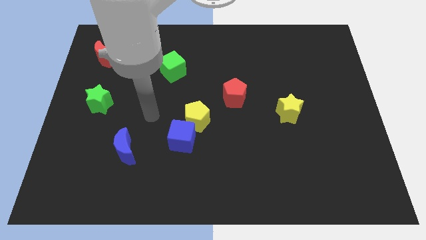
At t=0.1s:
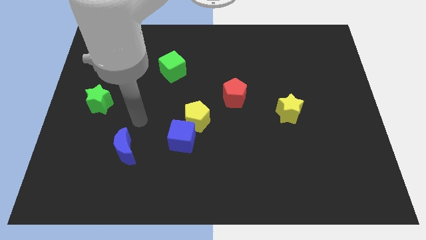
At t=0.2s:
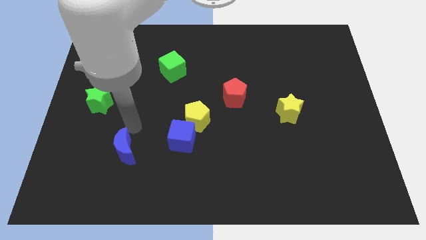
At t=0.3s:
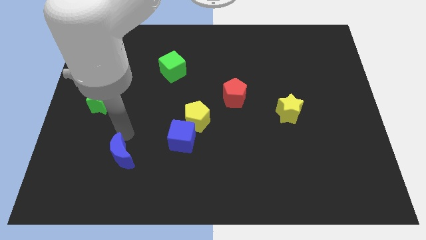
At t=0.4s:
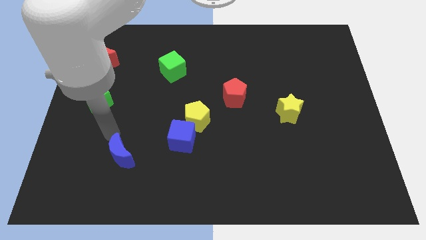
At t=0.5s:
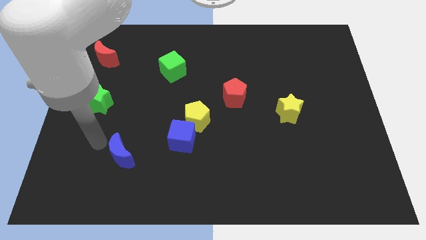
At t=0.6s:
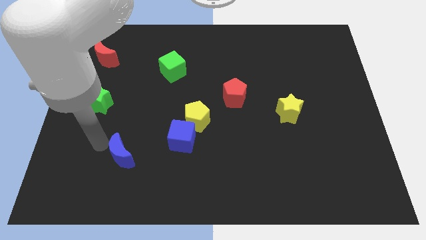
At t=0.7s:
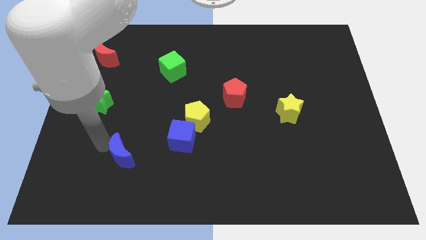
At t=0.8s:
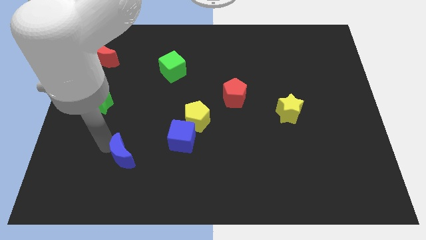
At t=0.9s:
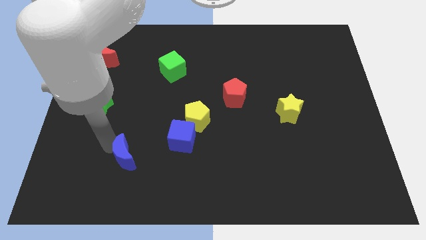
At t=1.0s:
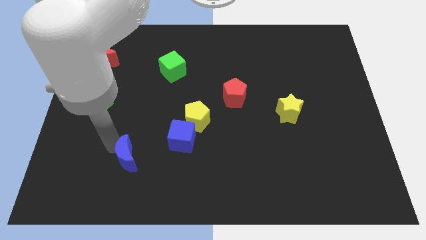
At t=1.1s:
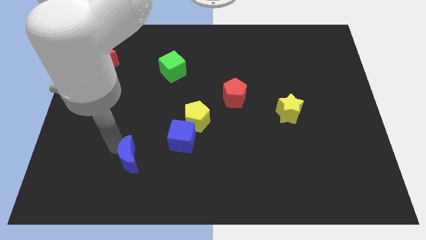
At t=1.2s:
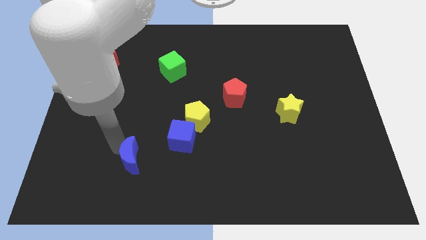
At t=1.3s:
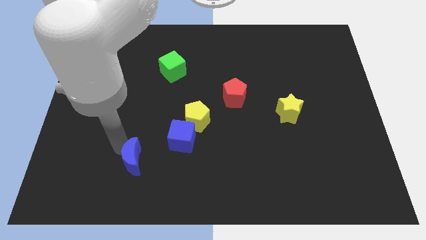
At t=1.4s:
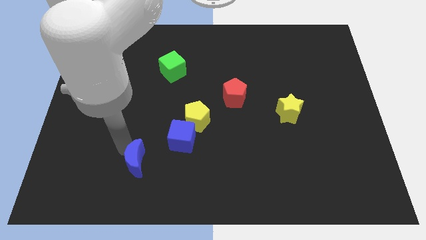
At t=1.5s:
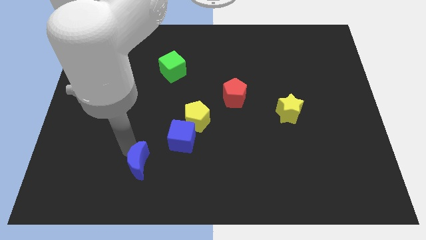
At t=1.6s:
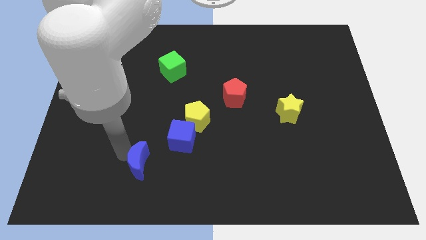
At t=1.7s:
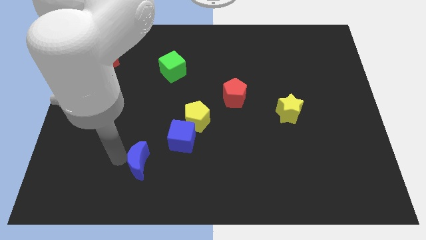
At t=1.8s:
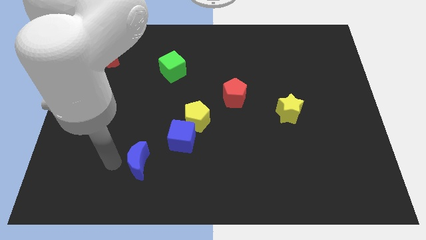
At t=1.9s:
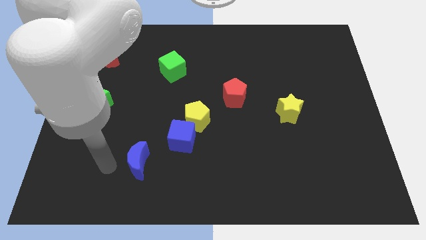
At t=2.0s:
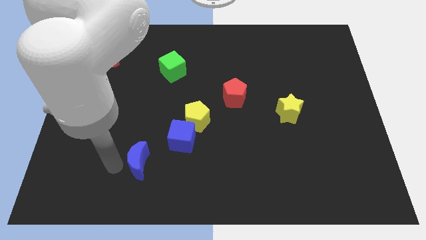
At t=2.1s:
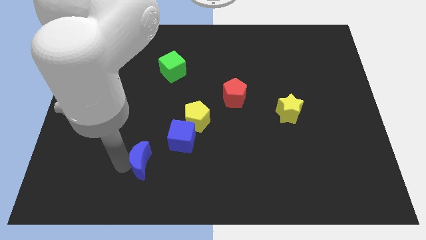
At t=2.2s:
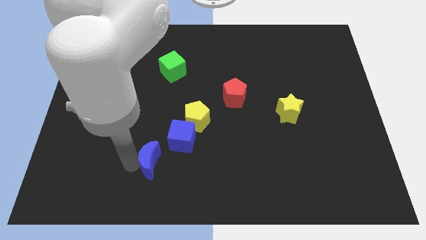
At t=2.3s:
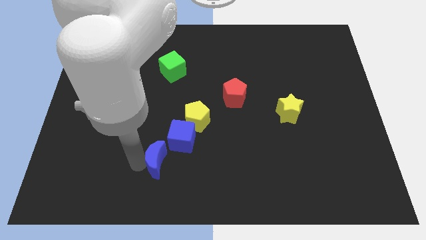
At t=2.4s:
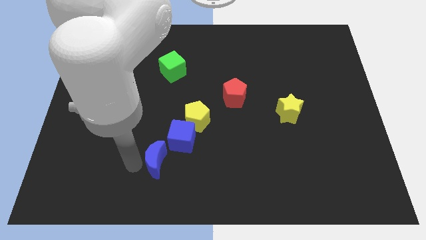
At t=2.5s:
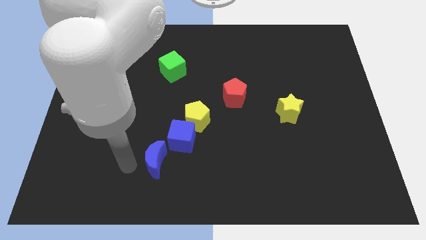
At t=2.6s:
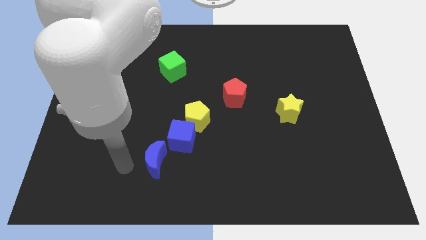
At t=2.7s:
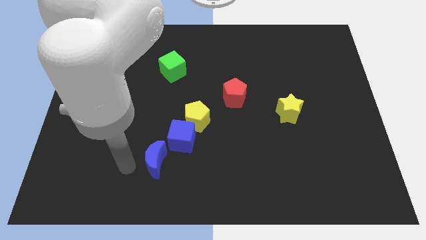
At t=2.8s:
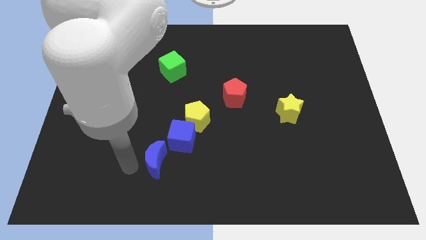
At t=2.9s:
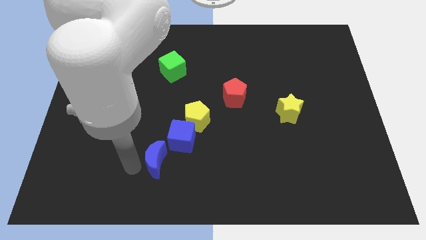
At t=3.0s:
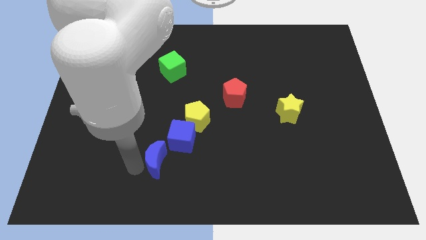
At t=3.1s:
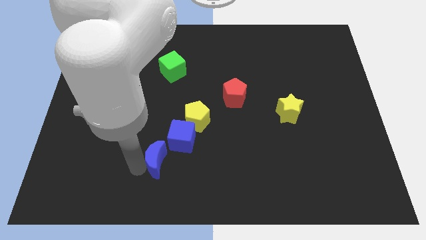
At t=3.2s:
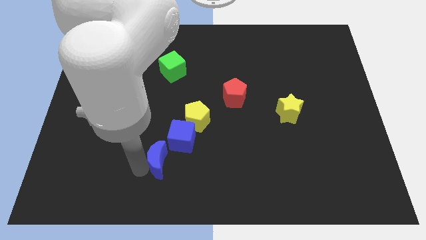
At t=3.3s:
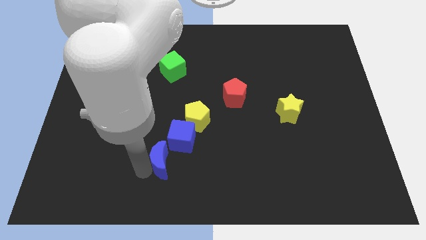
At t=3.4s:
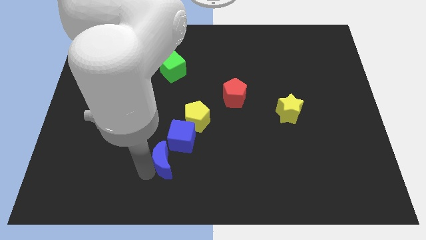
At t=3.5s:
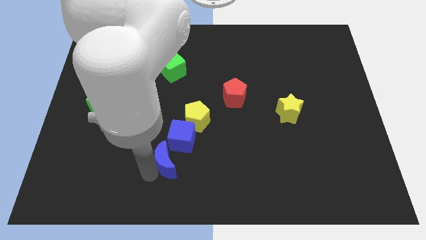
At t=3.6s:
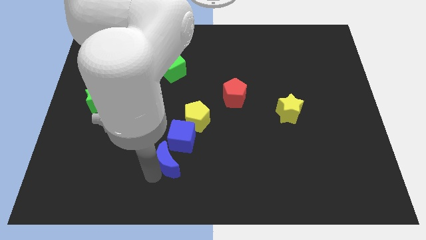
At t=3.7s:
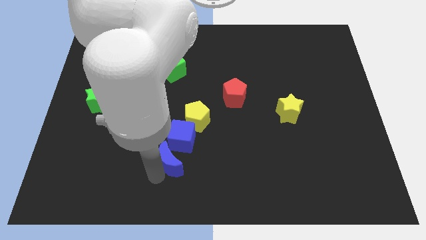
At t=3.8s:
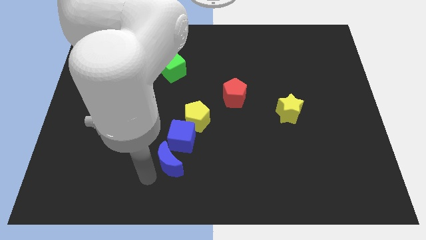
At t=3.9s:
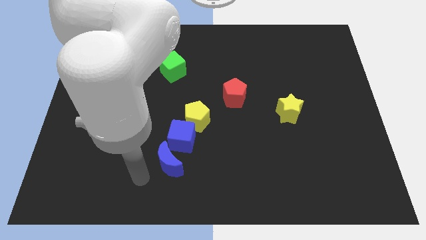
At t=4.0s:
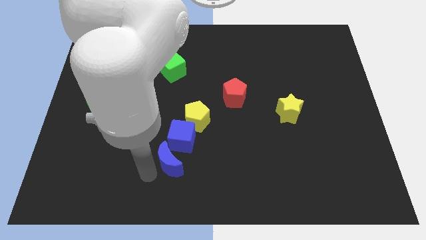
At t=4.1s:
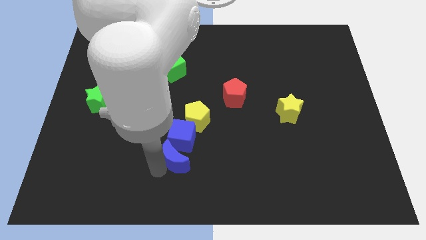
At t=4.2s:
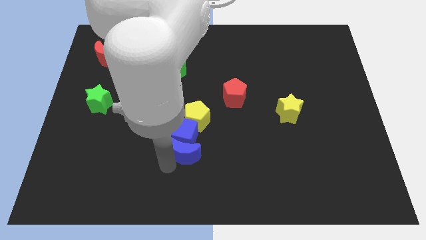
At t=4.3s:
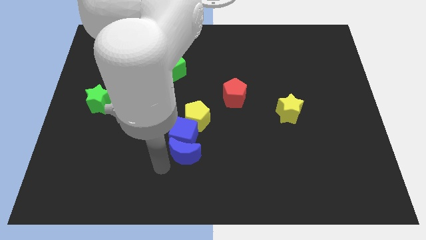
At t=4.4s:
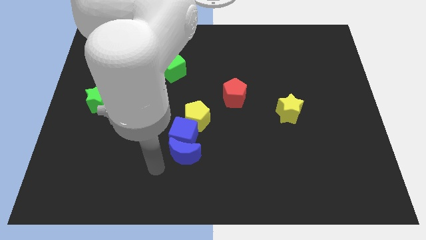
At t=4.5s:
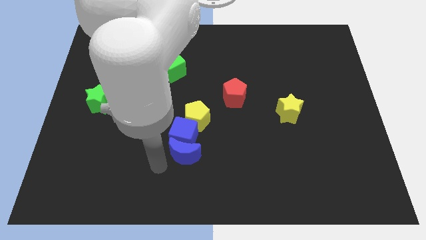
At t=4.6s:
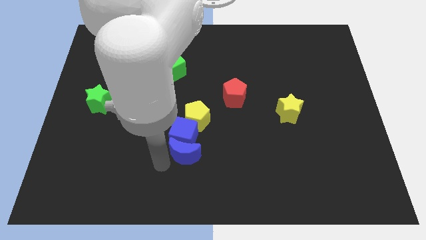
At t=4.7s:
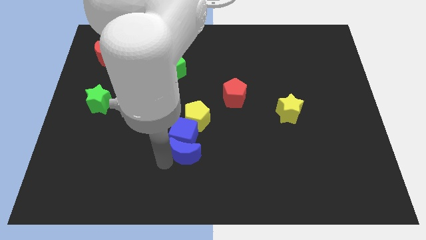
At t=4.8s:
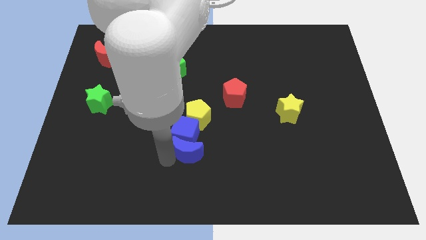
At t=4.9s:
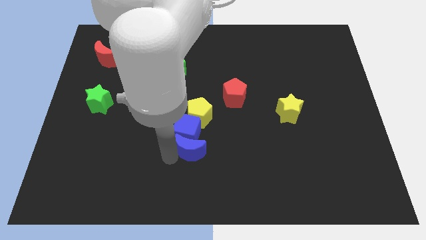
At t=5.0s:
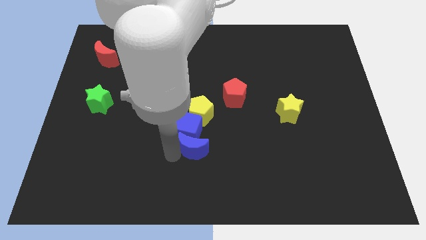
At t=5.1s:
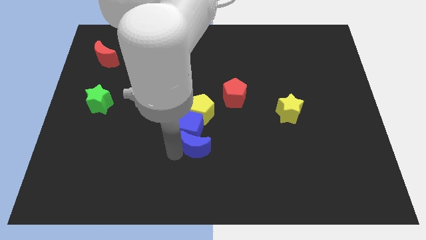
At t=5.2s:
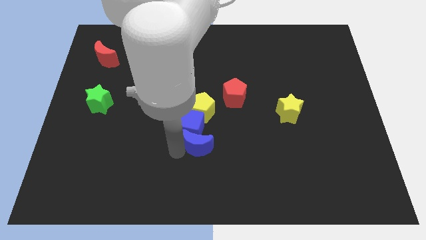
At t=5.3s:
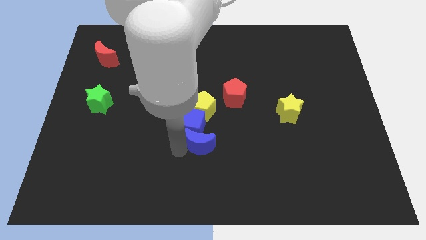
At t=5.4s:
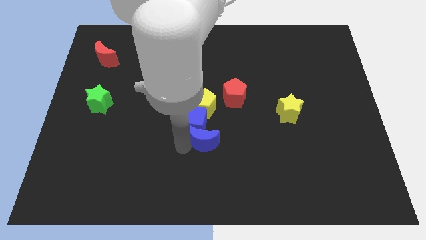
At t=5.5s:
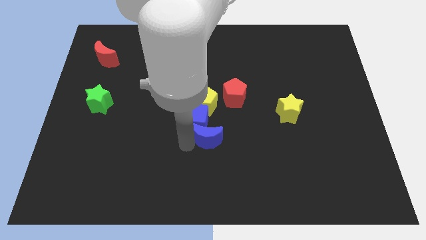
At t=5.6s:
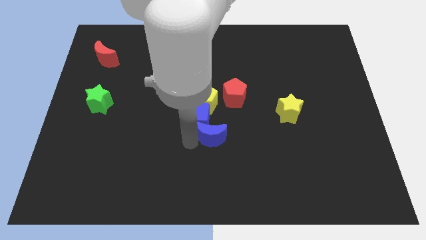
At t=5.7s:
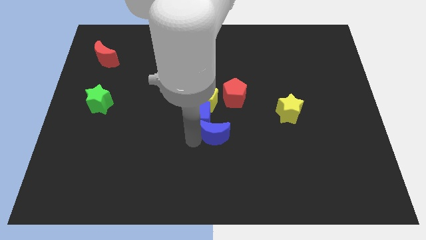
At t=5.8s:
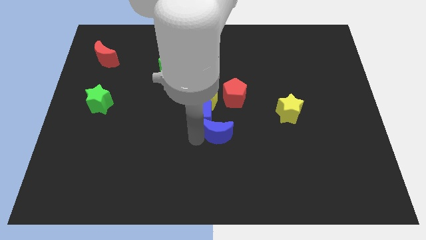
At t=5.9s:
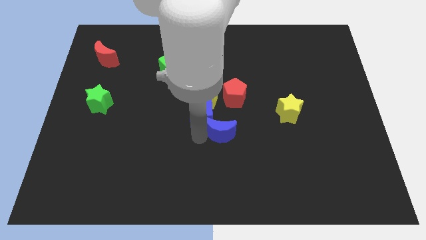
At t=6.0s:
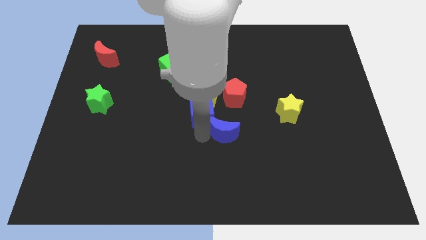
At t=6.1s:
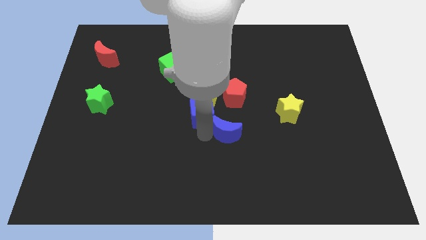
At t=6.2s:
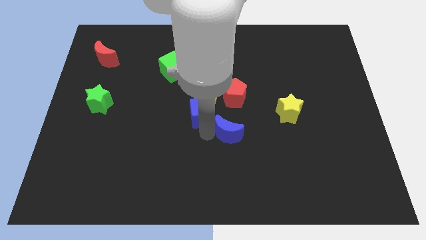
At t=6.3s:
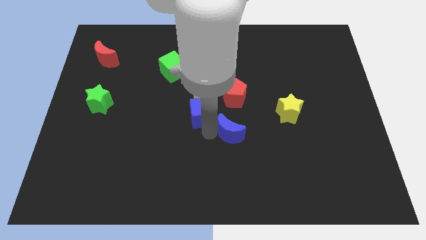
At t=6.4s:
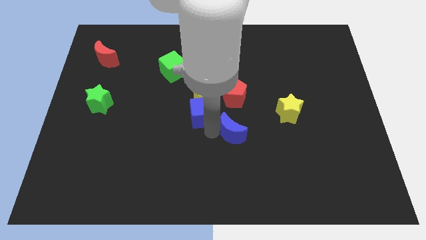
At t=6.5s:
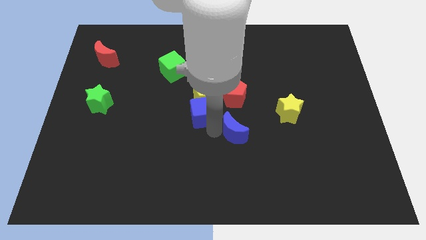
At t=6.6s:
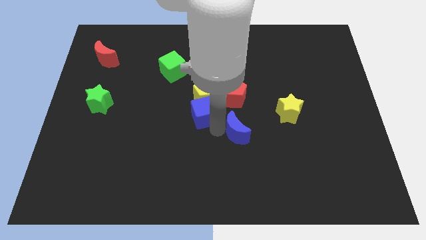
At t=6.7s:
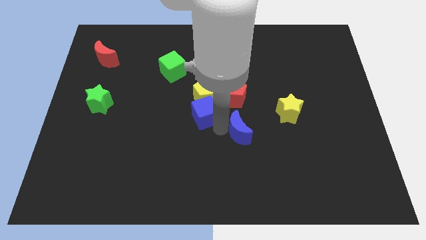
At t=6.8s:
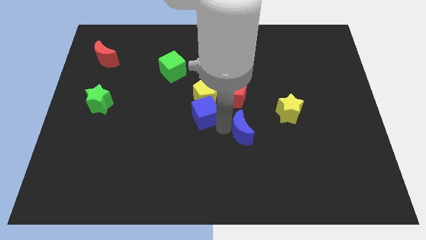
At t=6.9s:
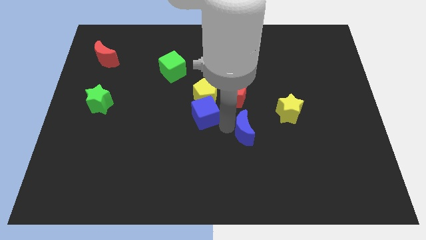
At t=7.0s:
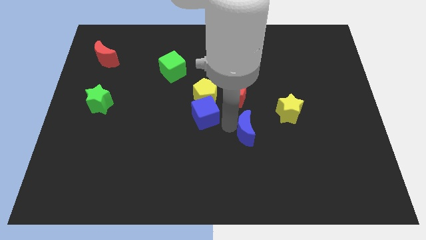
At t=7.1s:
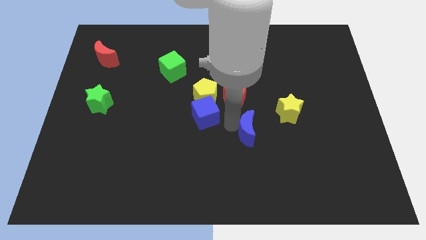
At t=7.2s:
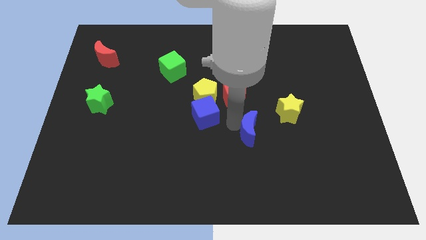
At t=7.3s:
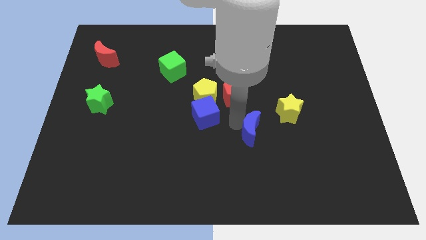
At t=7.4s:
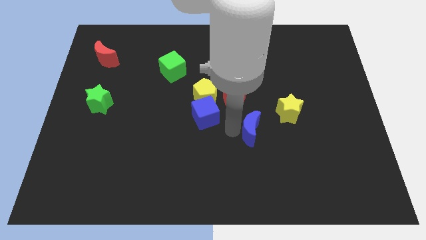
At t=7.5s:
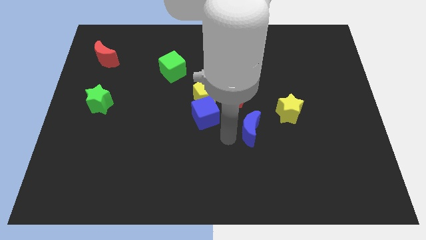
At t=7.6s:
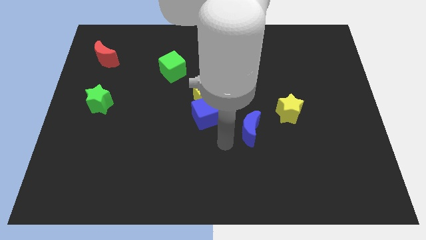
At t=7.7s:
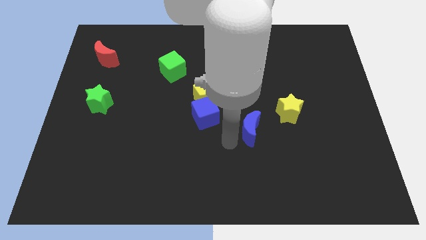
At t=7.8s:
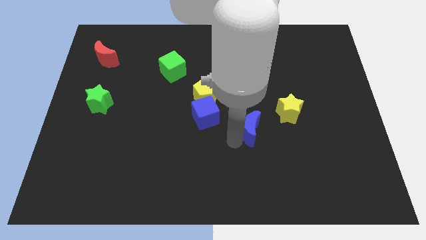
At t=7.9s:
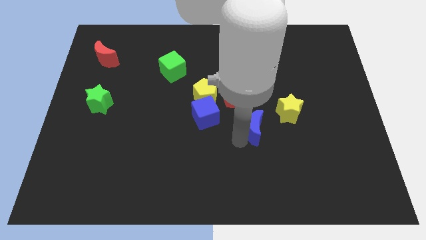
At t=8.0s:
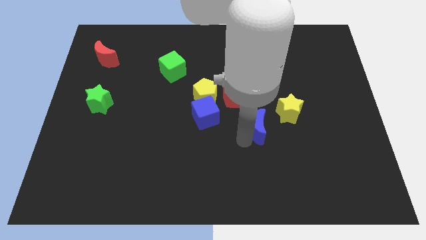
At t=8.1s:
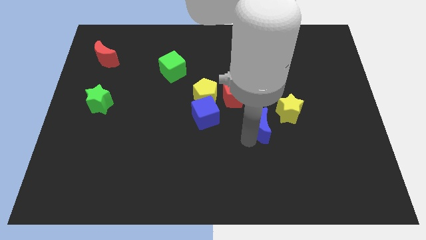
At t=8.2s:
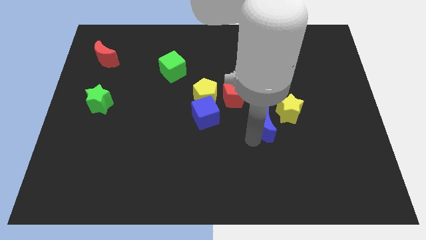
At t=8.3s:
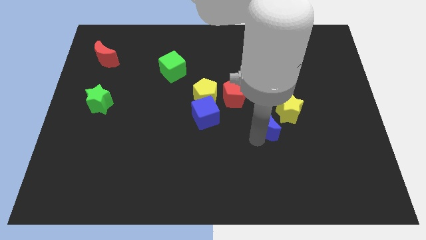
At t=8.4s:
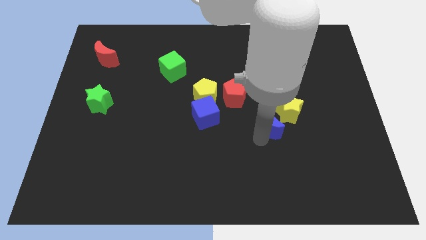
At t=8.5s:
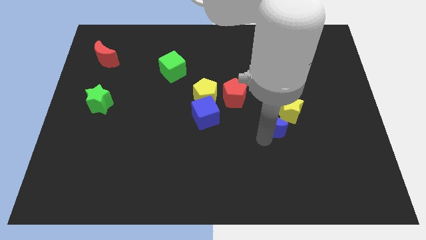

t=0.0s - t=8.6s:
slide the blue moon to the yellow star
